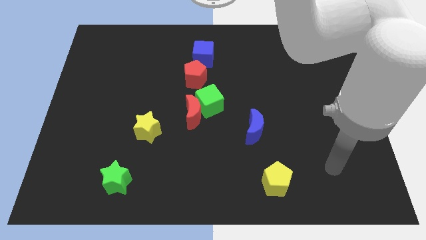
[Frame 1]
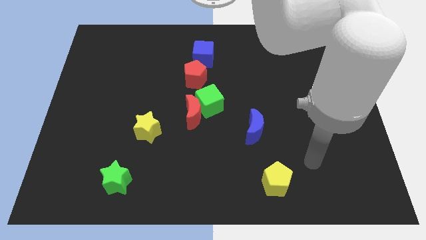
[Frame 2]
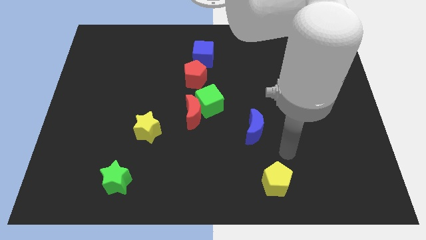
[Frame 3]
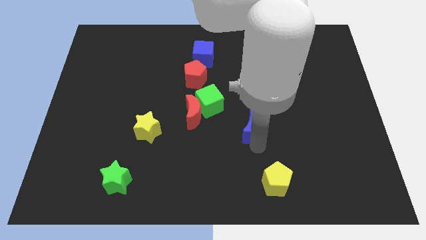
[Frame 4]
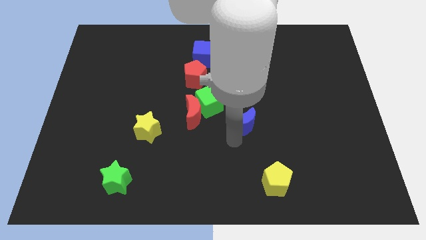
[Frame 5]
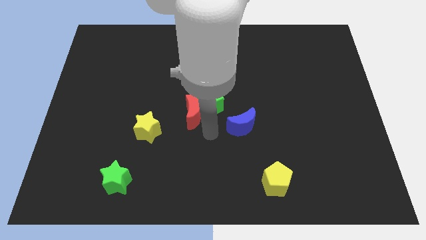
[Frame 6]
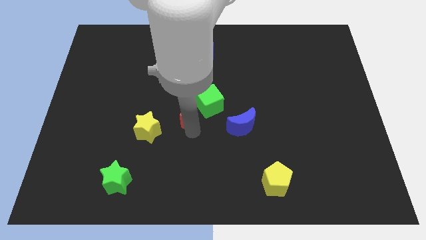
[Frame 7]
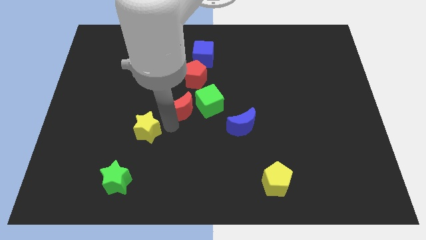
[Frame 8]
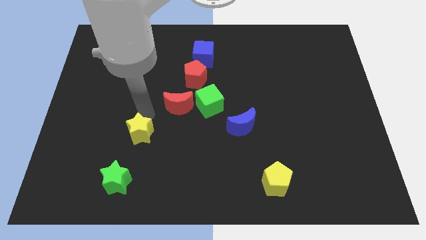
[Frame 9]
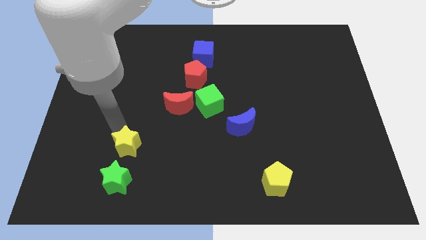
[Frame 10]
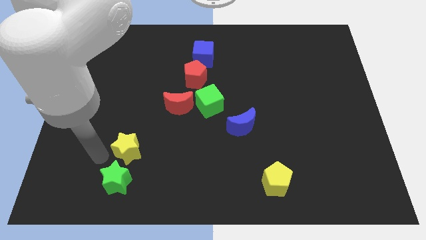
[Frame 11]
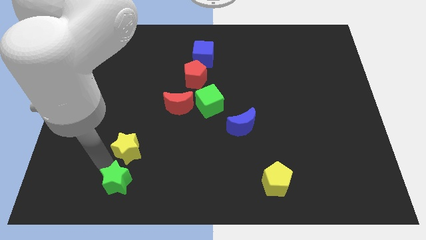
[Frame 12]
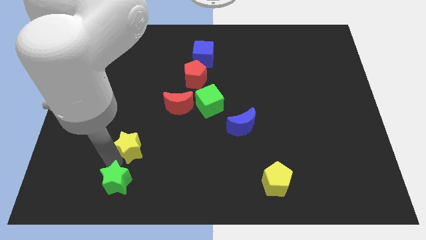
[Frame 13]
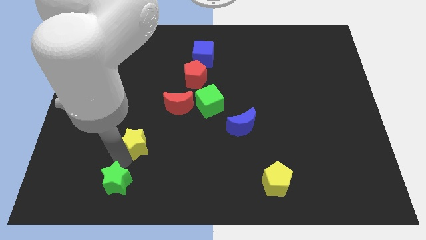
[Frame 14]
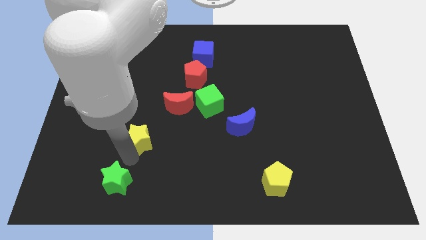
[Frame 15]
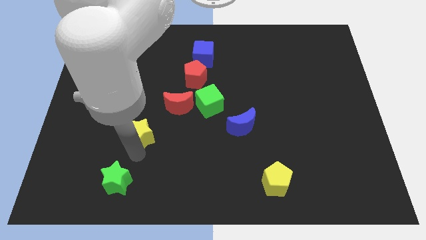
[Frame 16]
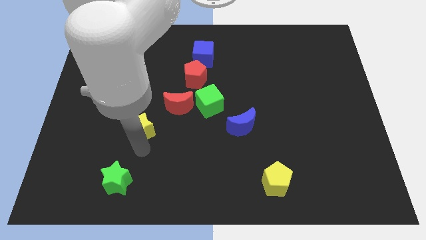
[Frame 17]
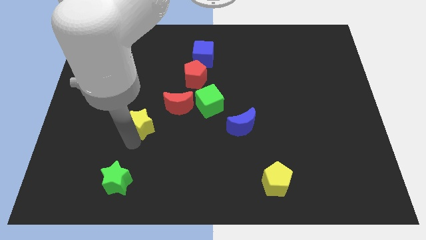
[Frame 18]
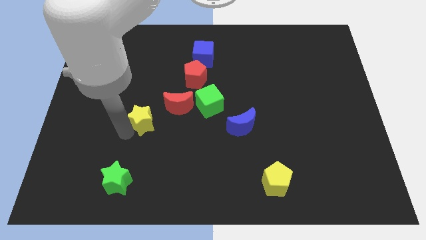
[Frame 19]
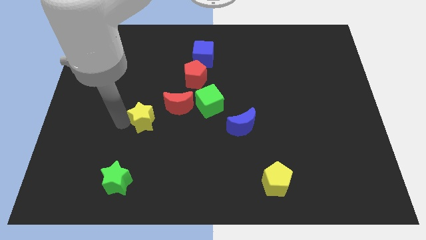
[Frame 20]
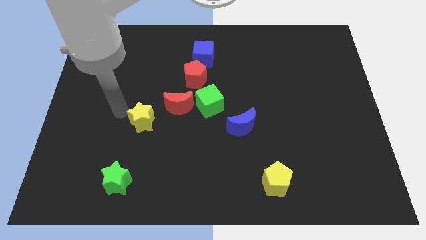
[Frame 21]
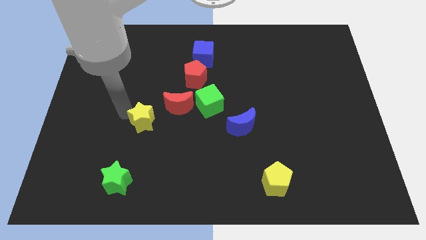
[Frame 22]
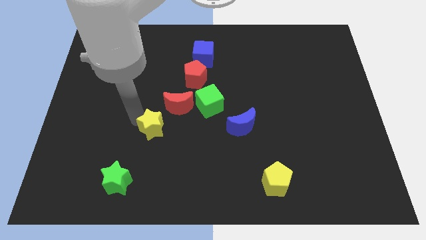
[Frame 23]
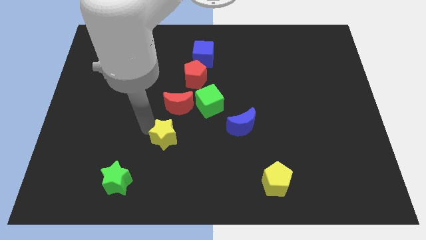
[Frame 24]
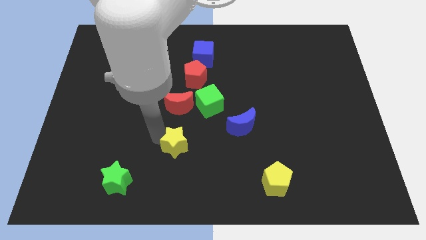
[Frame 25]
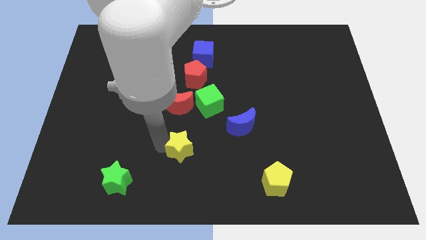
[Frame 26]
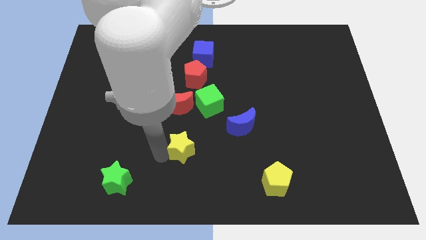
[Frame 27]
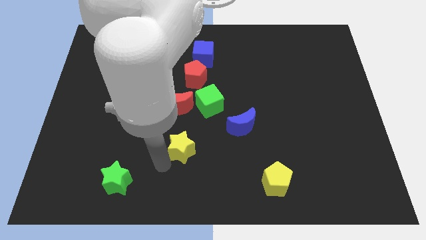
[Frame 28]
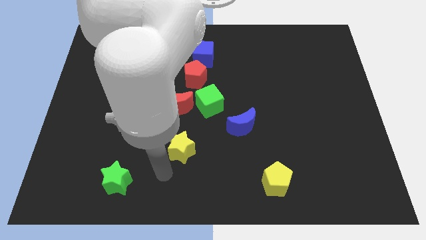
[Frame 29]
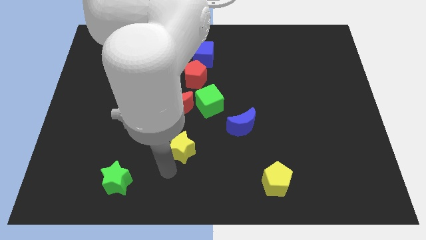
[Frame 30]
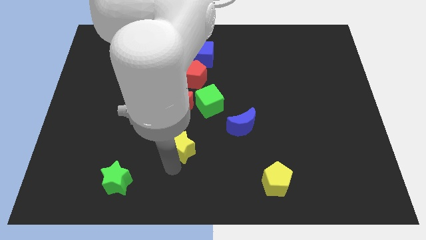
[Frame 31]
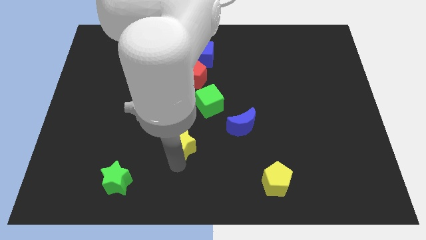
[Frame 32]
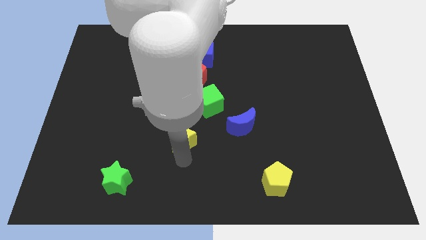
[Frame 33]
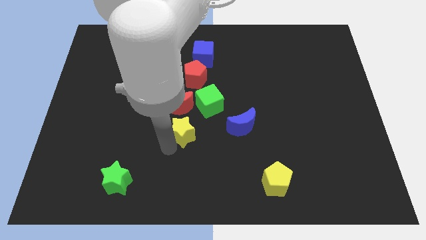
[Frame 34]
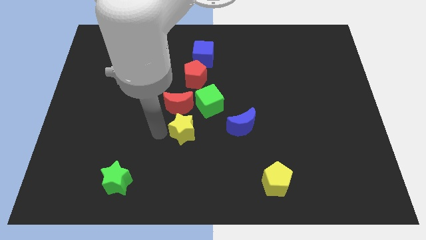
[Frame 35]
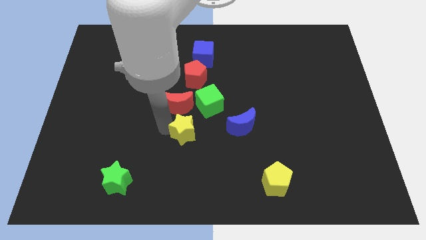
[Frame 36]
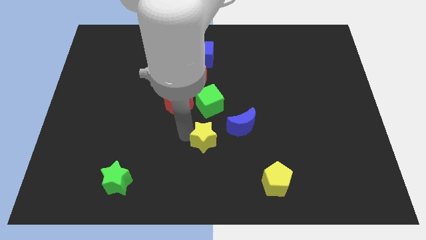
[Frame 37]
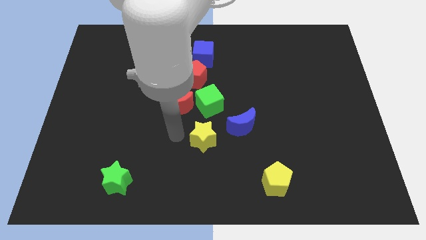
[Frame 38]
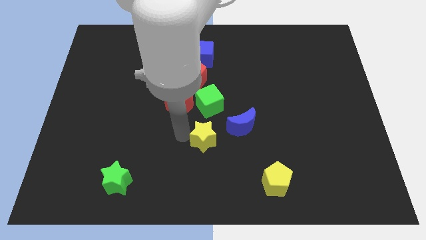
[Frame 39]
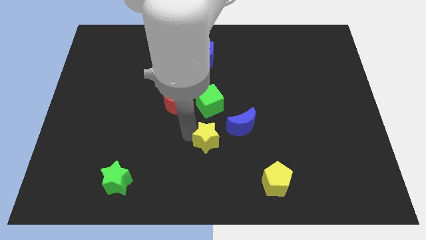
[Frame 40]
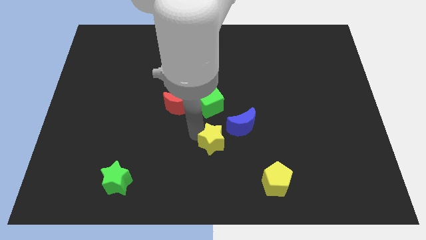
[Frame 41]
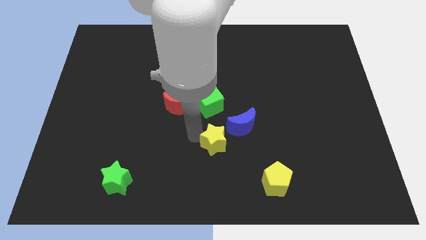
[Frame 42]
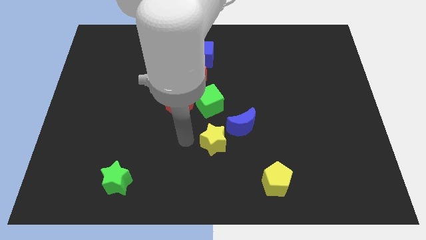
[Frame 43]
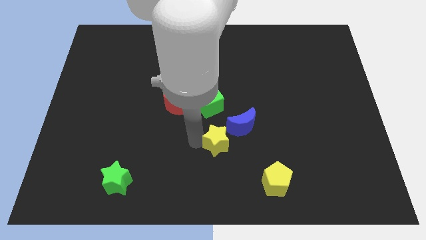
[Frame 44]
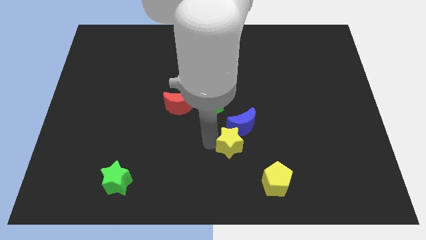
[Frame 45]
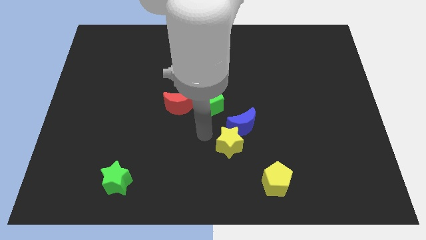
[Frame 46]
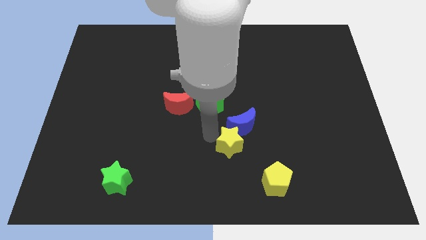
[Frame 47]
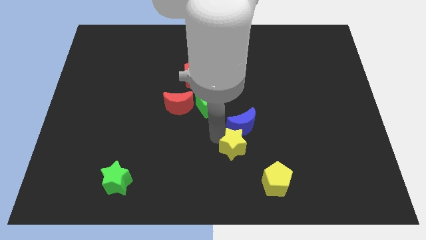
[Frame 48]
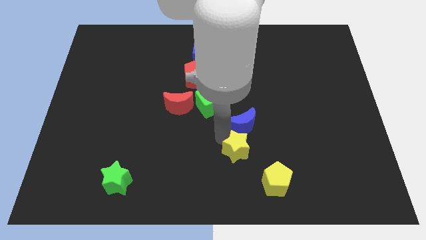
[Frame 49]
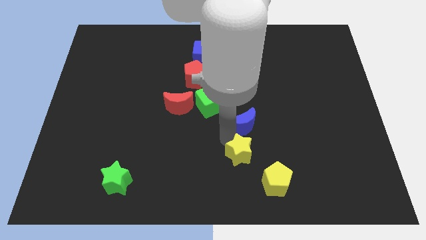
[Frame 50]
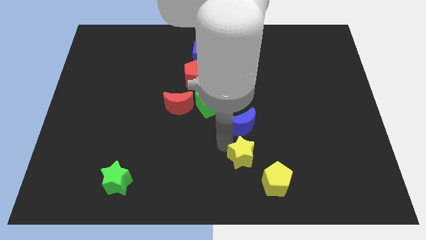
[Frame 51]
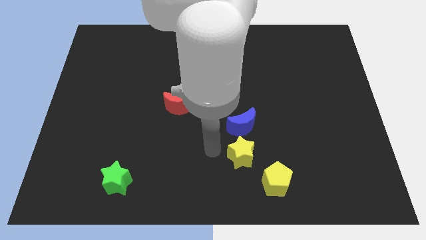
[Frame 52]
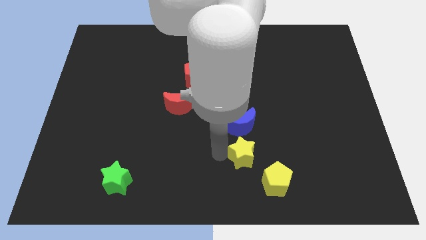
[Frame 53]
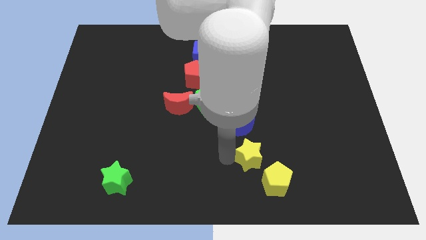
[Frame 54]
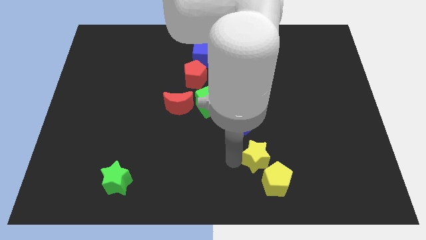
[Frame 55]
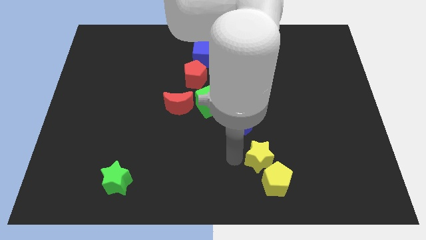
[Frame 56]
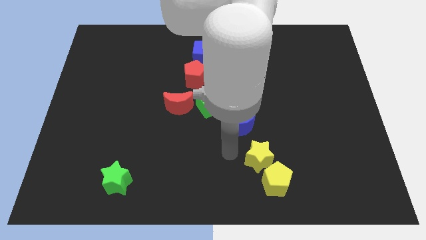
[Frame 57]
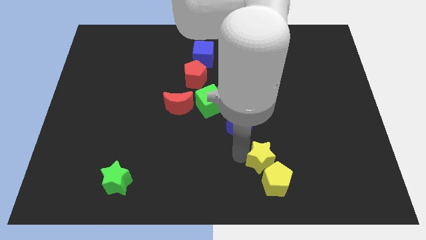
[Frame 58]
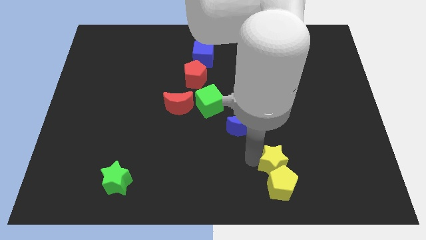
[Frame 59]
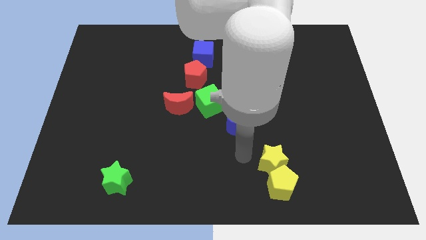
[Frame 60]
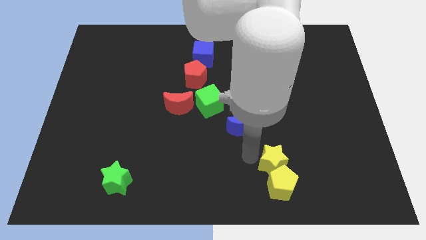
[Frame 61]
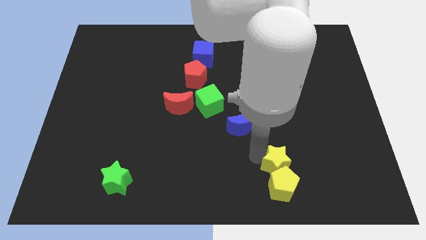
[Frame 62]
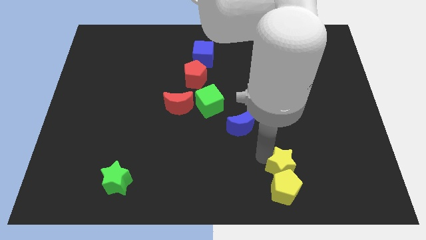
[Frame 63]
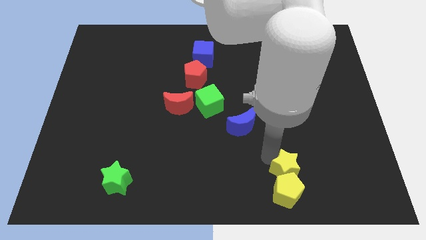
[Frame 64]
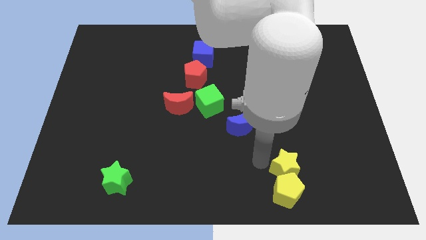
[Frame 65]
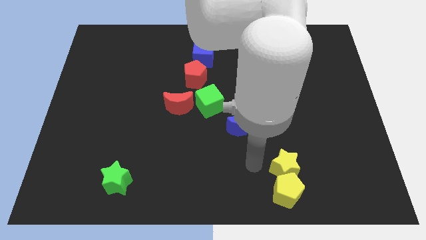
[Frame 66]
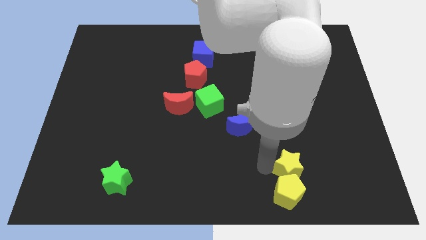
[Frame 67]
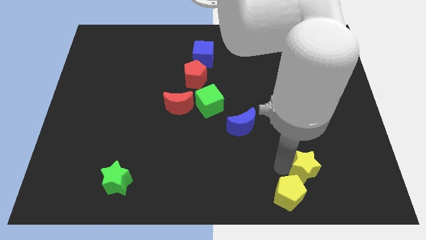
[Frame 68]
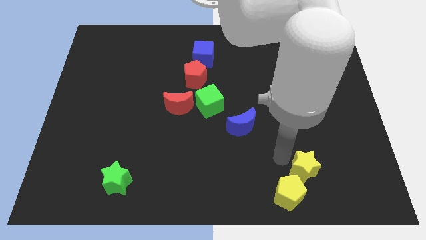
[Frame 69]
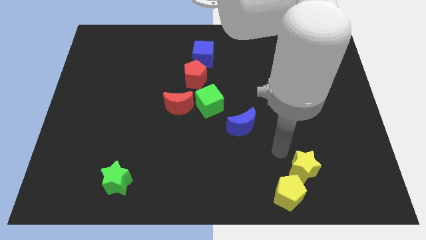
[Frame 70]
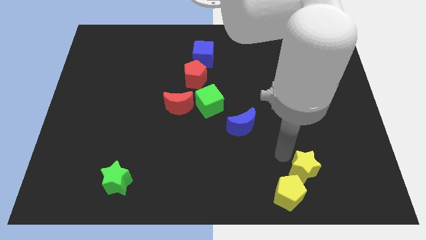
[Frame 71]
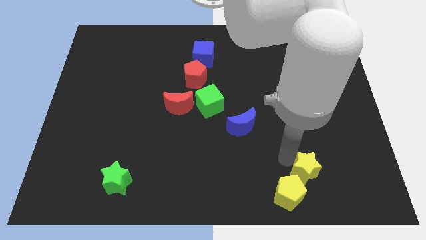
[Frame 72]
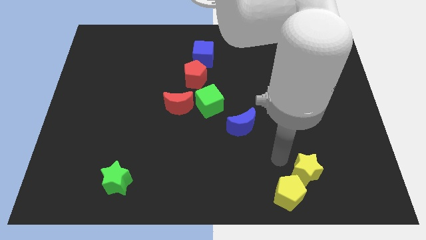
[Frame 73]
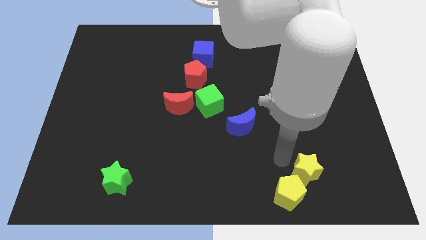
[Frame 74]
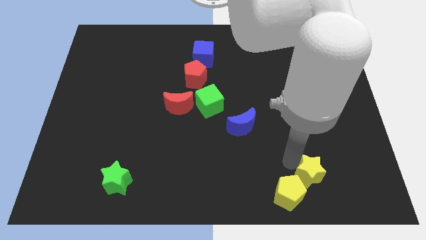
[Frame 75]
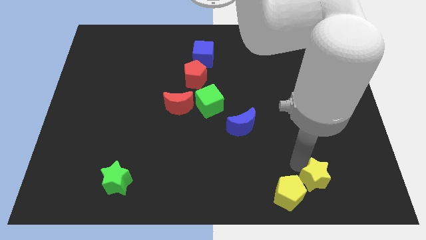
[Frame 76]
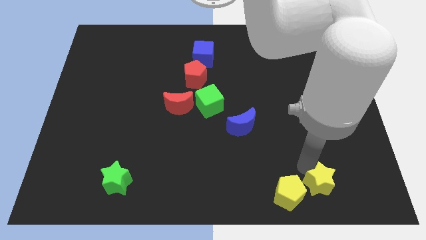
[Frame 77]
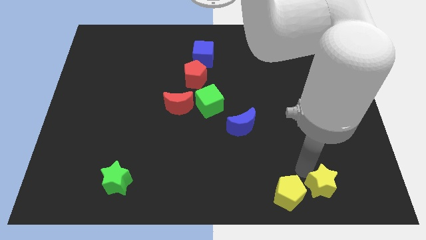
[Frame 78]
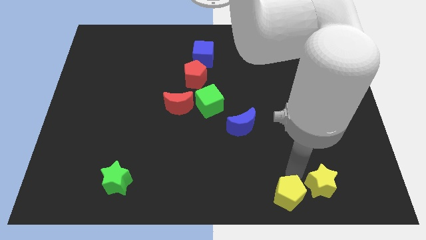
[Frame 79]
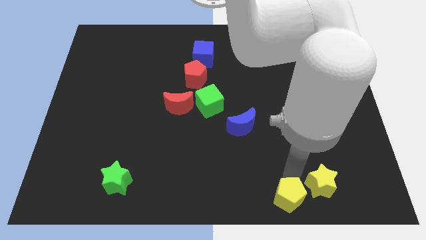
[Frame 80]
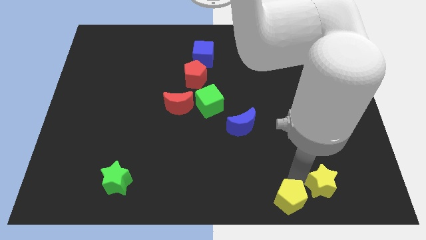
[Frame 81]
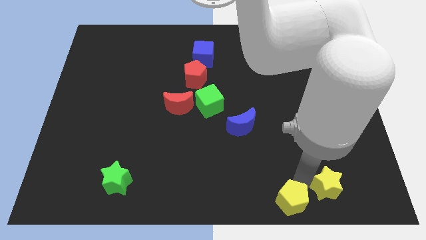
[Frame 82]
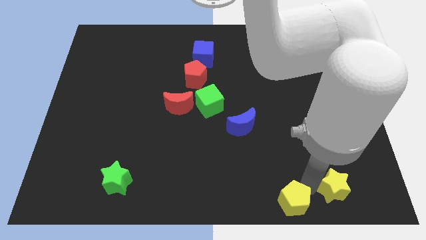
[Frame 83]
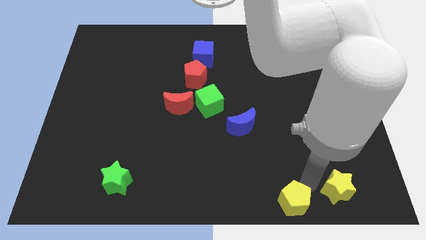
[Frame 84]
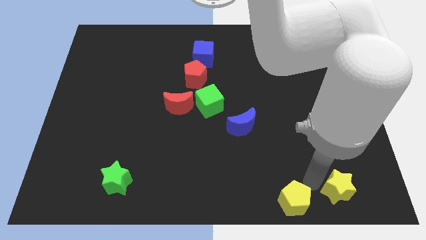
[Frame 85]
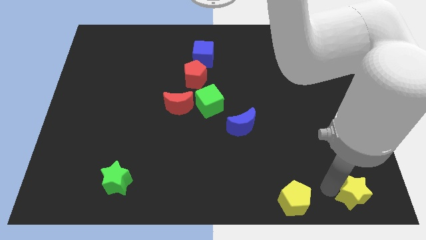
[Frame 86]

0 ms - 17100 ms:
put the yellow star to the bottom right corner
